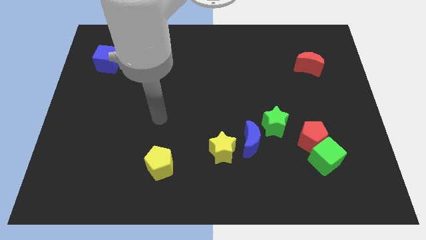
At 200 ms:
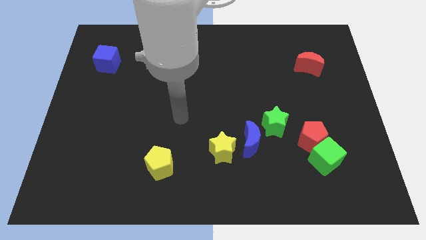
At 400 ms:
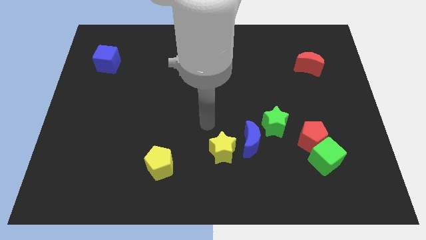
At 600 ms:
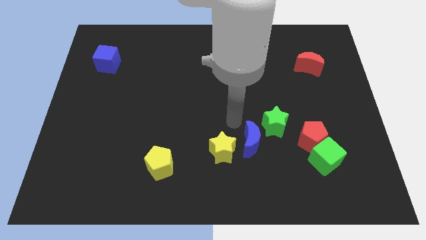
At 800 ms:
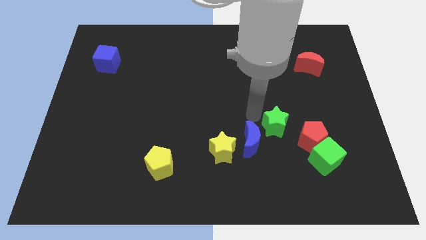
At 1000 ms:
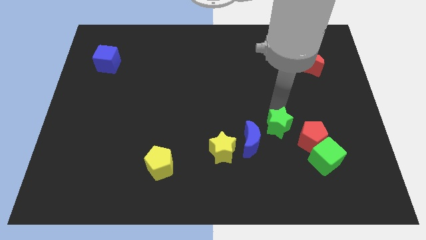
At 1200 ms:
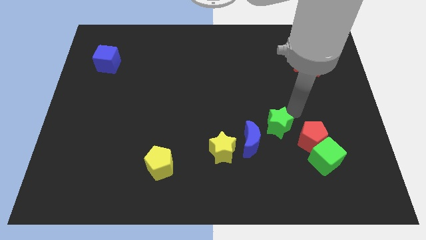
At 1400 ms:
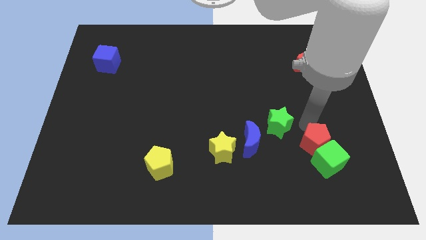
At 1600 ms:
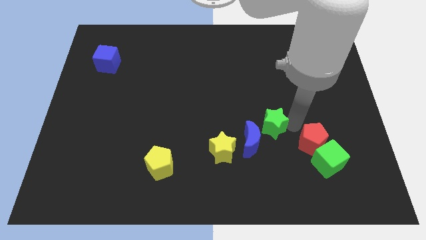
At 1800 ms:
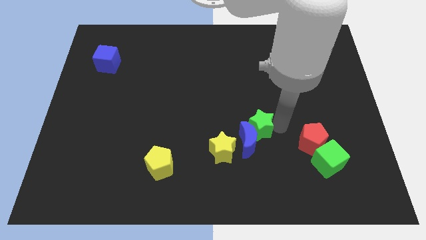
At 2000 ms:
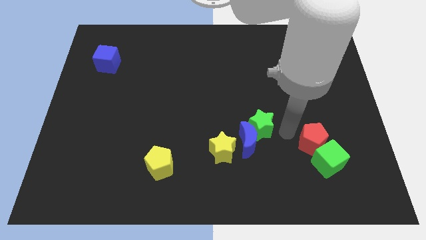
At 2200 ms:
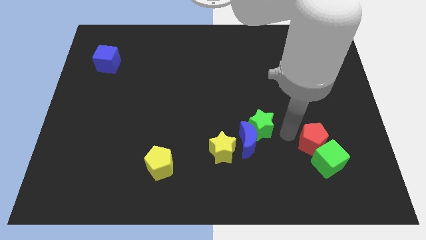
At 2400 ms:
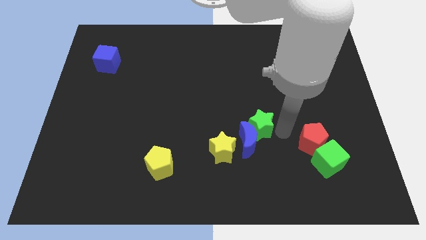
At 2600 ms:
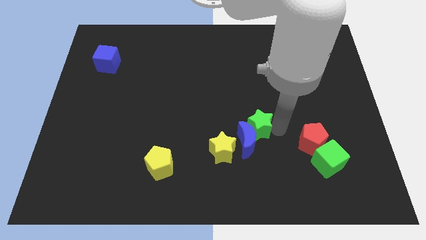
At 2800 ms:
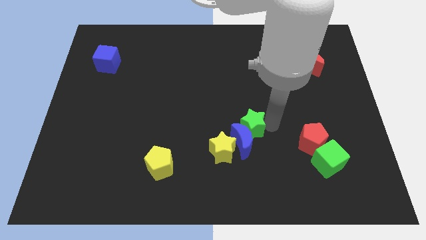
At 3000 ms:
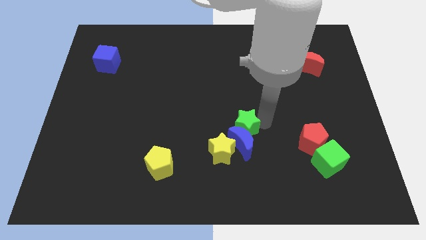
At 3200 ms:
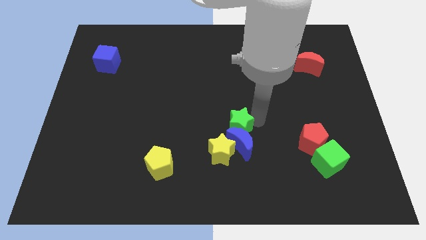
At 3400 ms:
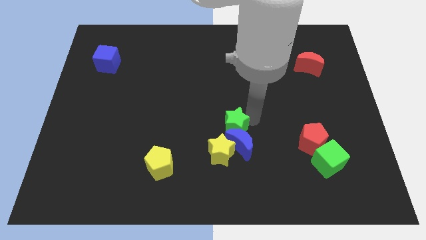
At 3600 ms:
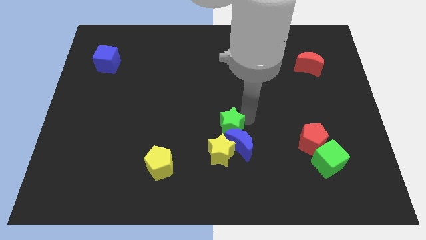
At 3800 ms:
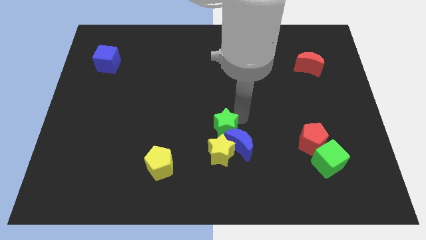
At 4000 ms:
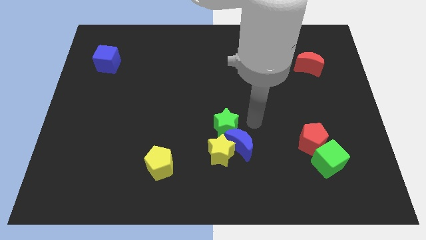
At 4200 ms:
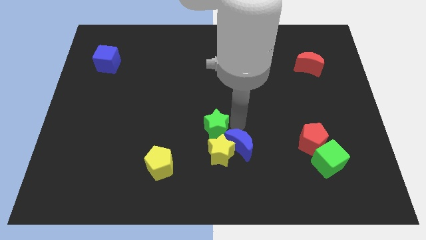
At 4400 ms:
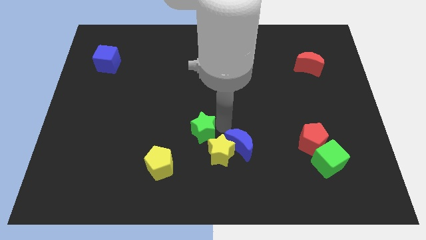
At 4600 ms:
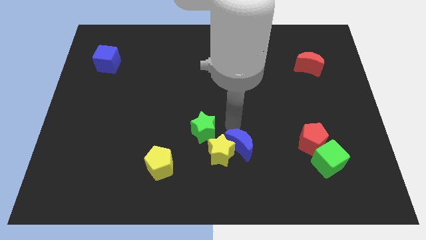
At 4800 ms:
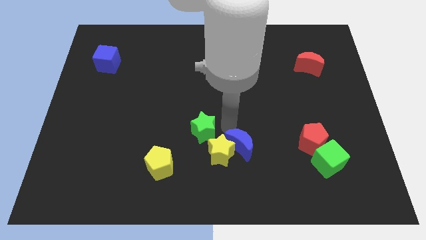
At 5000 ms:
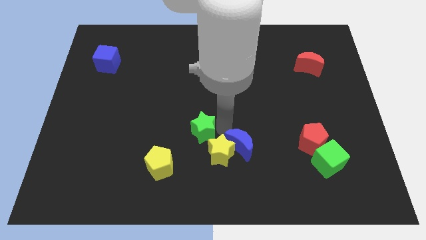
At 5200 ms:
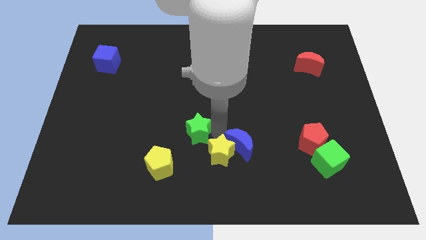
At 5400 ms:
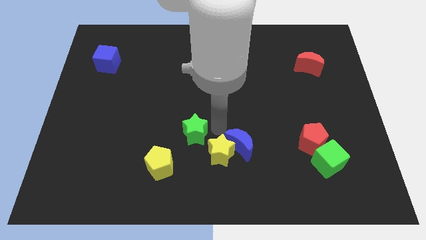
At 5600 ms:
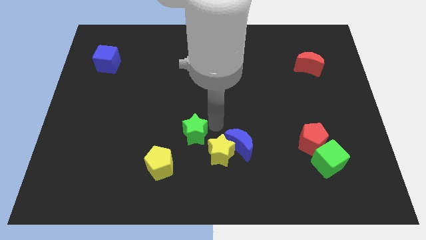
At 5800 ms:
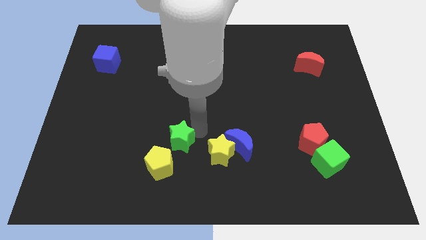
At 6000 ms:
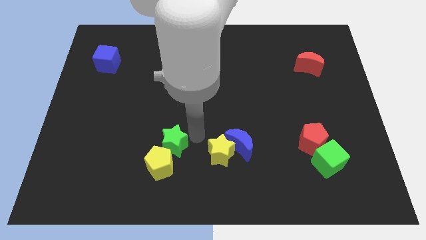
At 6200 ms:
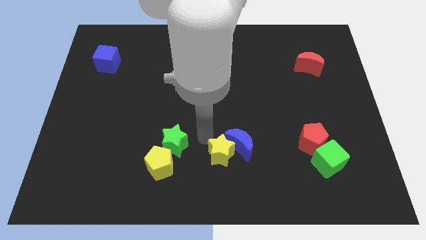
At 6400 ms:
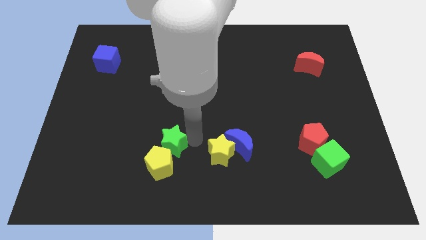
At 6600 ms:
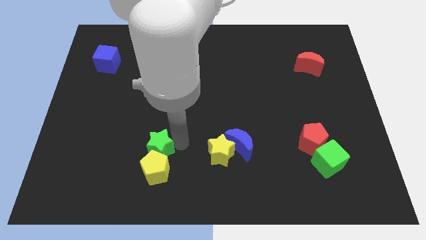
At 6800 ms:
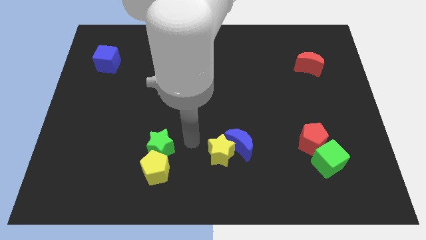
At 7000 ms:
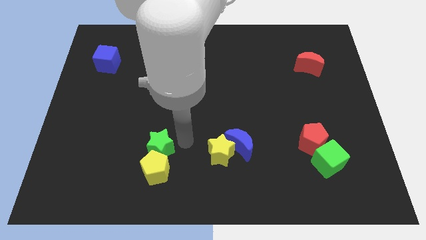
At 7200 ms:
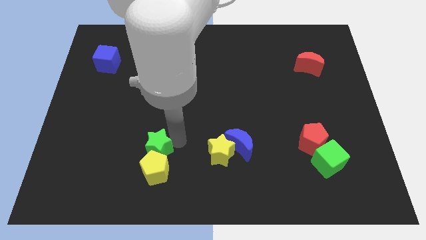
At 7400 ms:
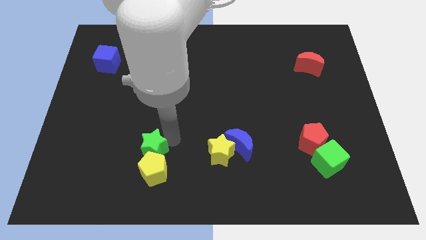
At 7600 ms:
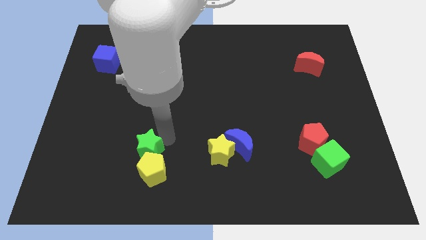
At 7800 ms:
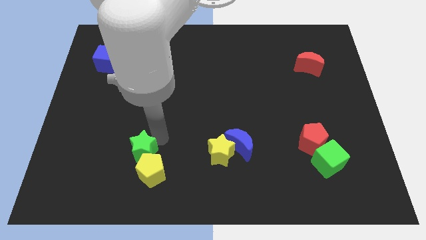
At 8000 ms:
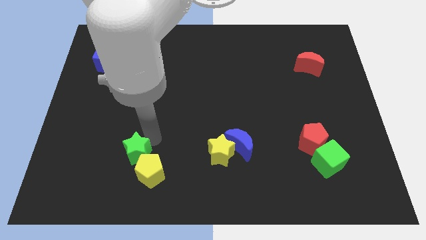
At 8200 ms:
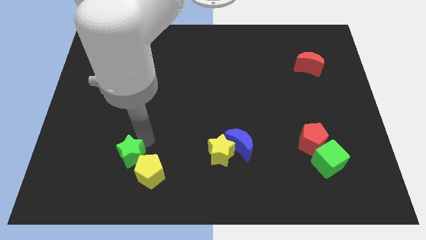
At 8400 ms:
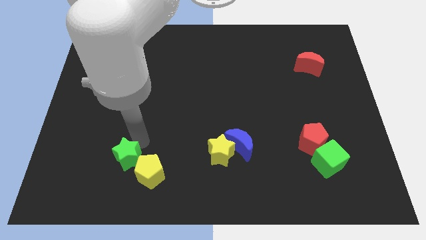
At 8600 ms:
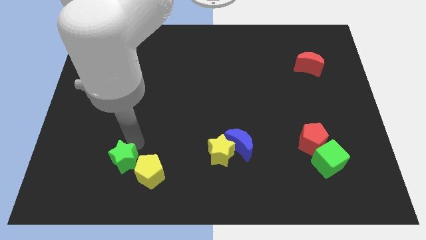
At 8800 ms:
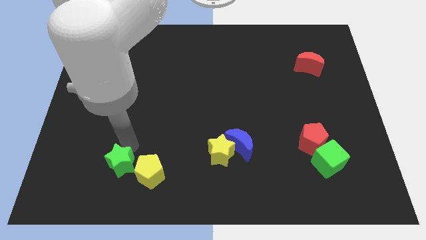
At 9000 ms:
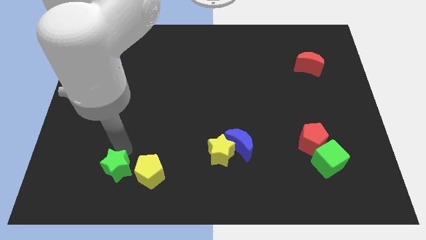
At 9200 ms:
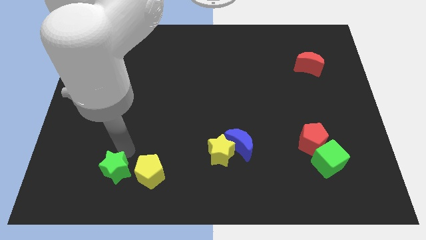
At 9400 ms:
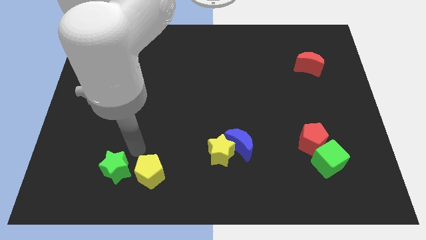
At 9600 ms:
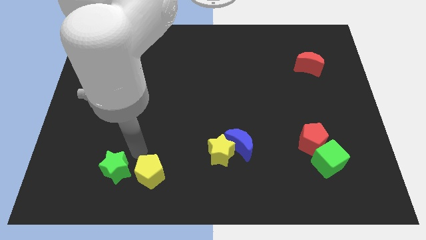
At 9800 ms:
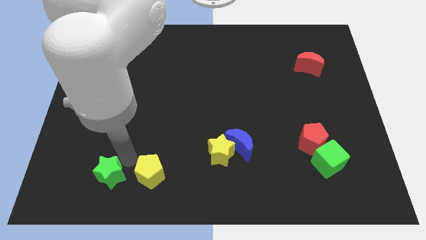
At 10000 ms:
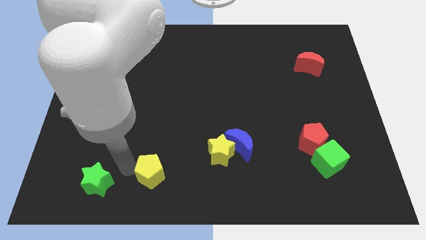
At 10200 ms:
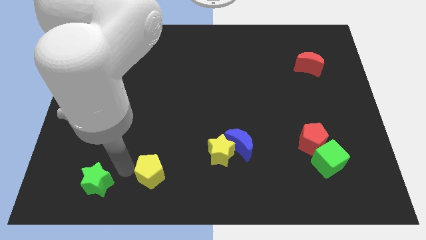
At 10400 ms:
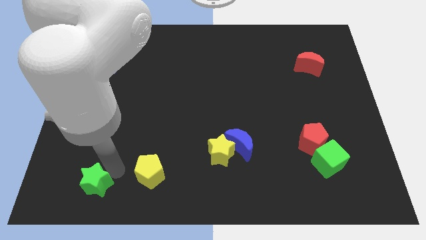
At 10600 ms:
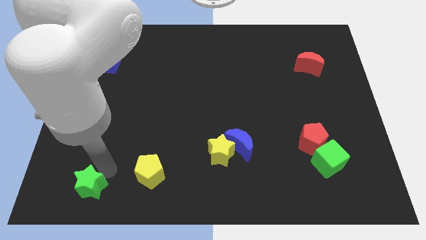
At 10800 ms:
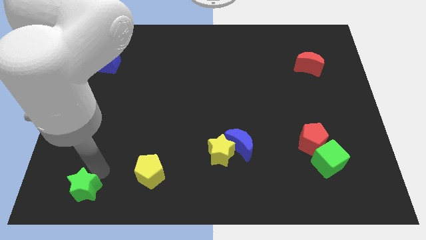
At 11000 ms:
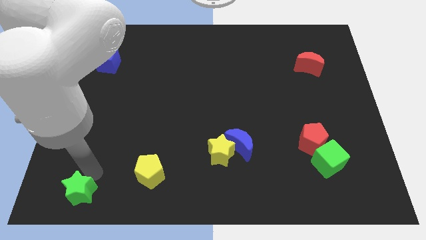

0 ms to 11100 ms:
push the green star to the bottom left corner
